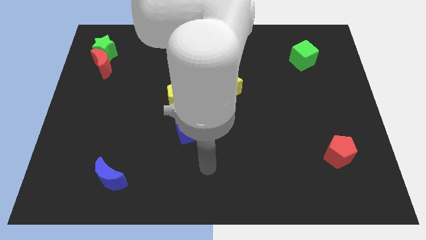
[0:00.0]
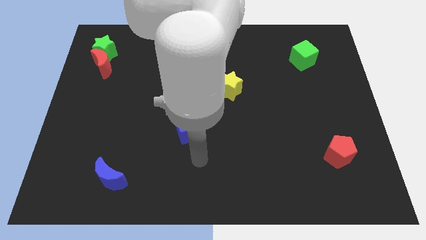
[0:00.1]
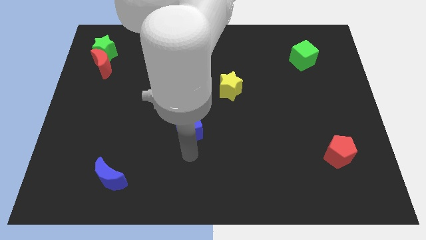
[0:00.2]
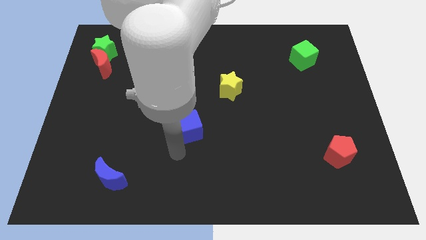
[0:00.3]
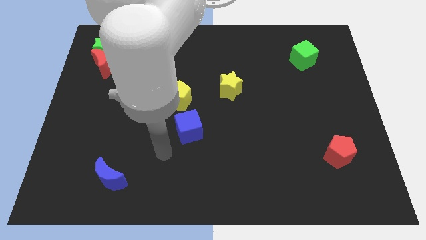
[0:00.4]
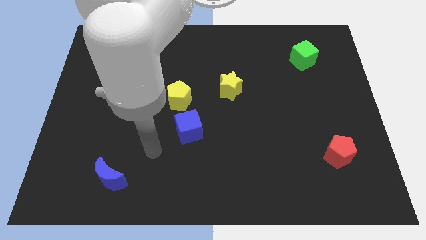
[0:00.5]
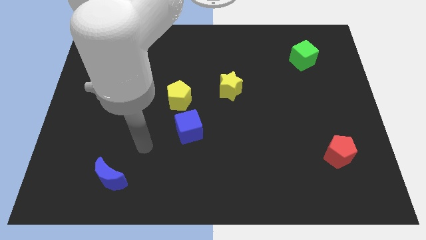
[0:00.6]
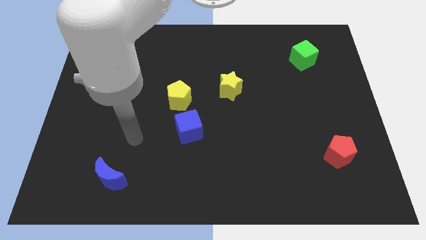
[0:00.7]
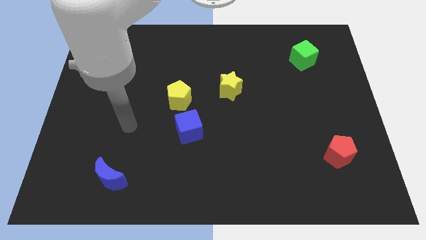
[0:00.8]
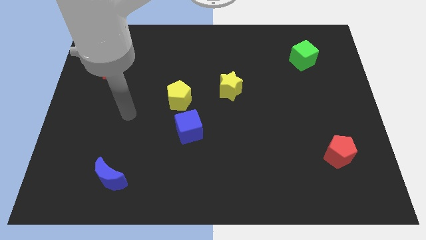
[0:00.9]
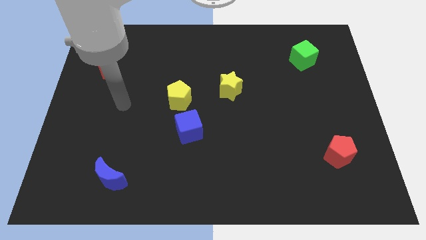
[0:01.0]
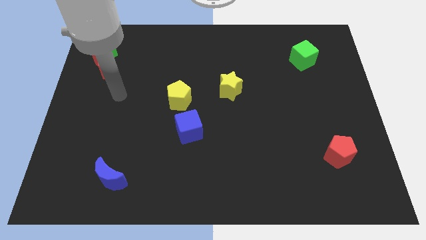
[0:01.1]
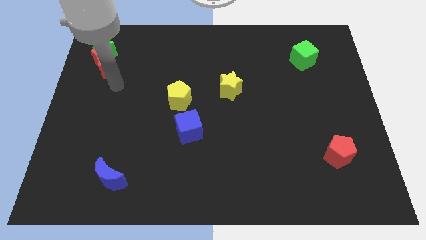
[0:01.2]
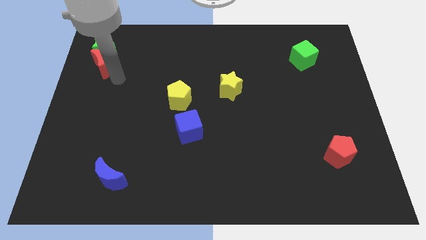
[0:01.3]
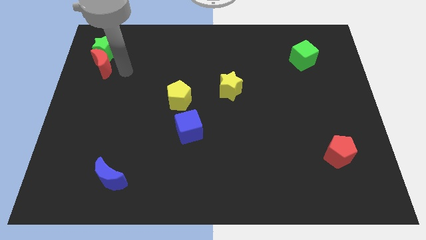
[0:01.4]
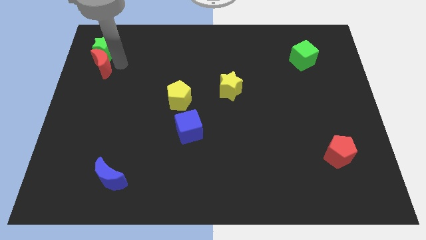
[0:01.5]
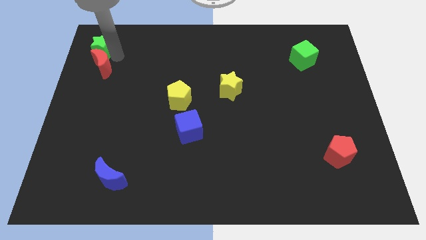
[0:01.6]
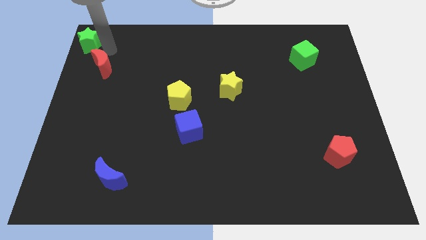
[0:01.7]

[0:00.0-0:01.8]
separate the red moon from the green star

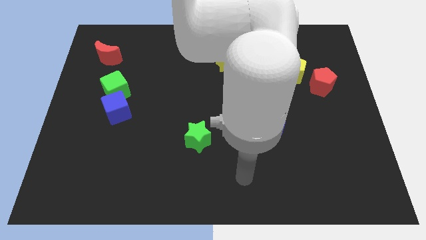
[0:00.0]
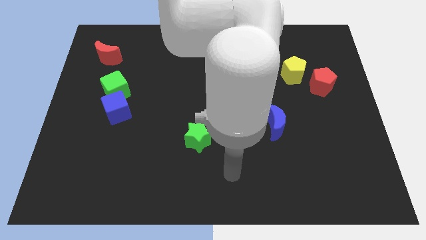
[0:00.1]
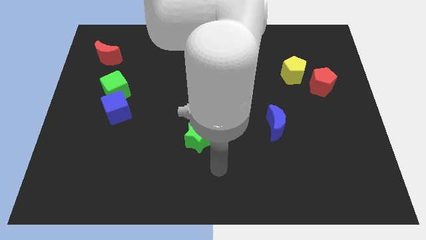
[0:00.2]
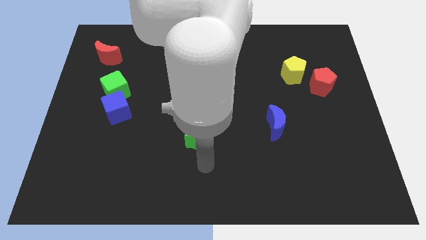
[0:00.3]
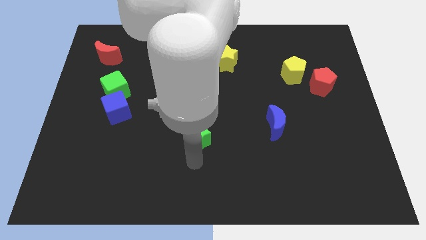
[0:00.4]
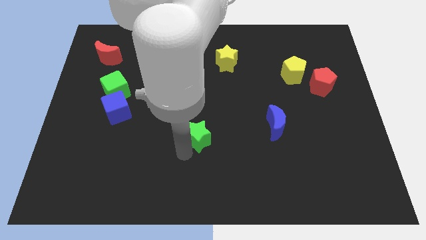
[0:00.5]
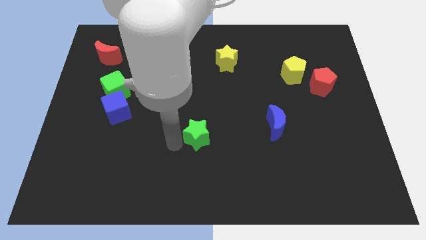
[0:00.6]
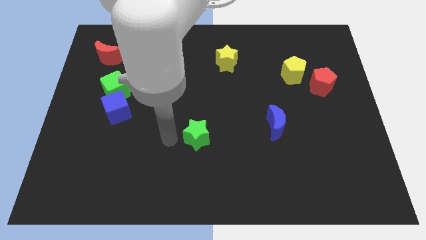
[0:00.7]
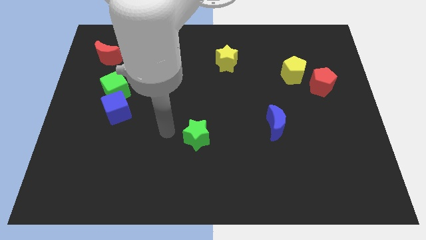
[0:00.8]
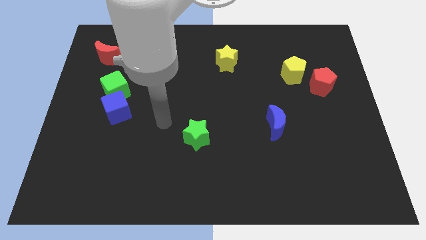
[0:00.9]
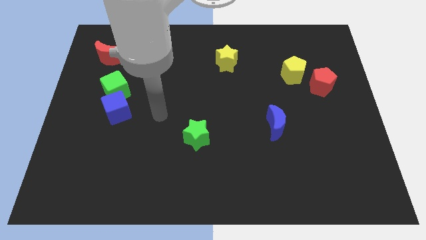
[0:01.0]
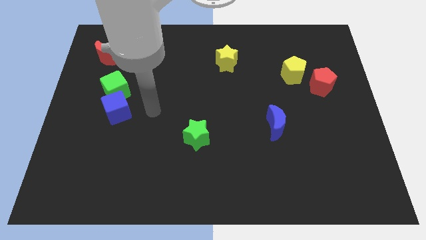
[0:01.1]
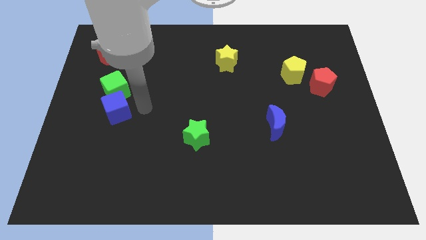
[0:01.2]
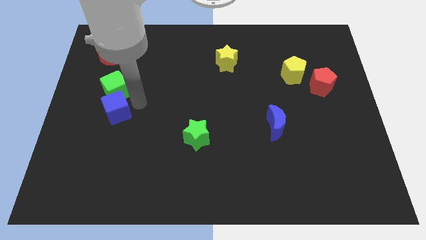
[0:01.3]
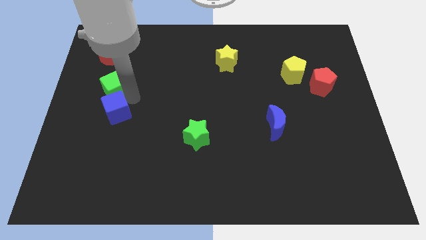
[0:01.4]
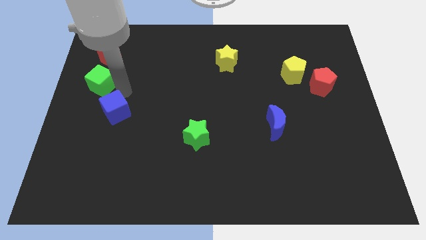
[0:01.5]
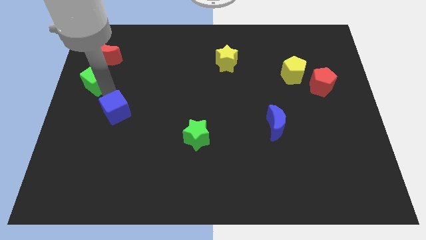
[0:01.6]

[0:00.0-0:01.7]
move the blue cube away from the green cube

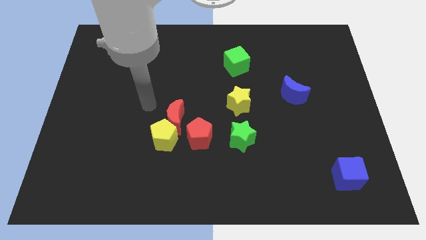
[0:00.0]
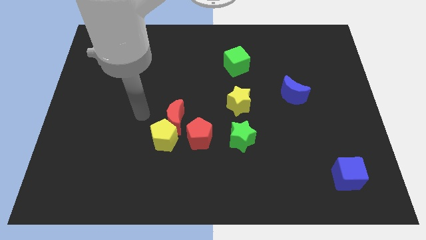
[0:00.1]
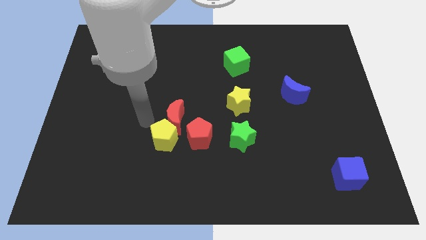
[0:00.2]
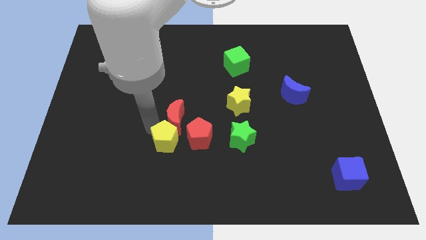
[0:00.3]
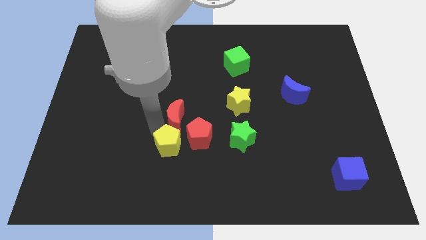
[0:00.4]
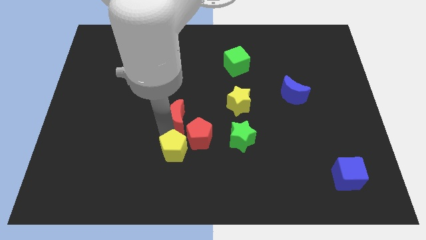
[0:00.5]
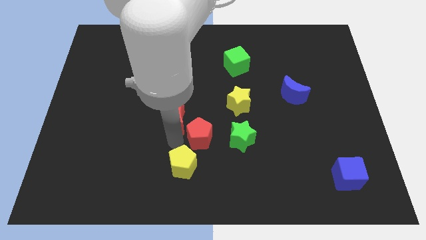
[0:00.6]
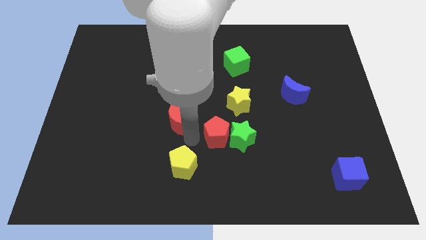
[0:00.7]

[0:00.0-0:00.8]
move the red moon away from the yellow pentagon and red pentagon

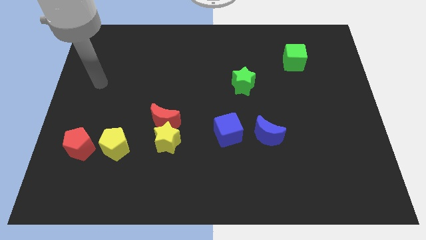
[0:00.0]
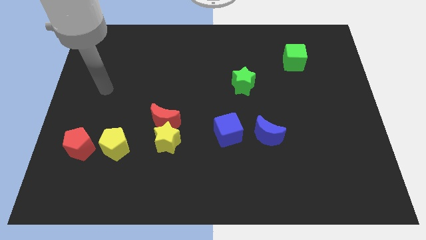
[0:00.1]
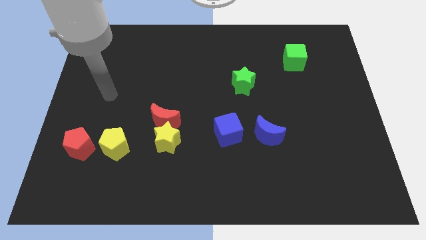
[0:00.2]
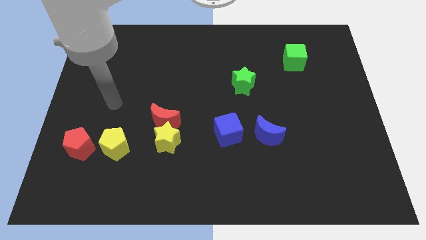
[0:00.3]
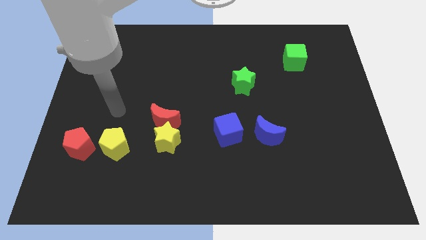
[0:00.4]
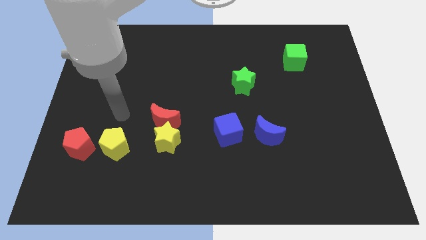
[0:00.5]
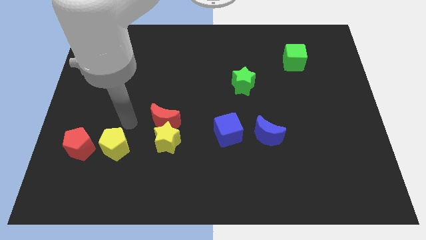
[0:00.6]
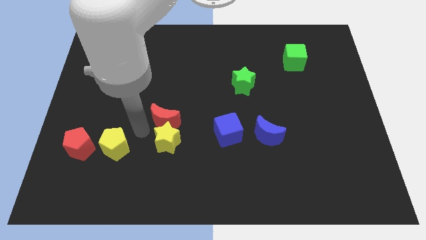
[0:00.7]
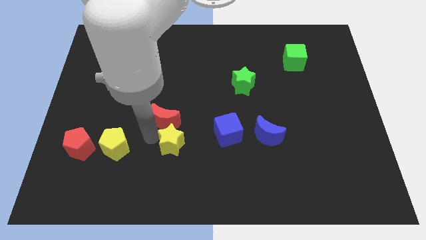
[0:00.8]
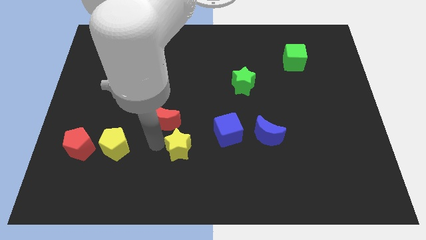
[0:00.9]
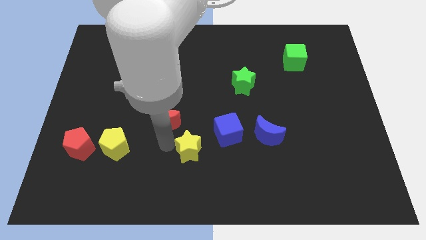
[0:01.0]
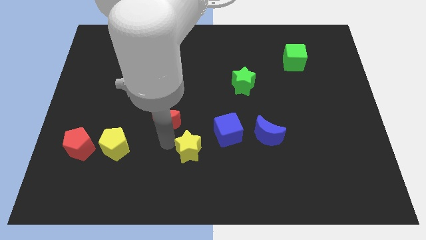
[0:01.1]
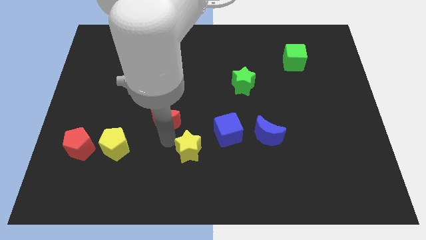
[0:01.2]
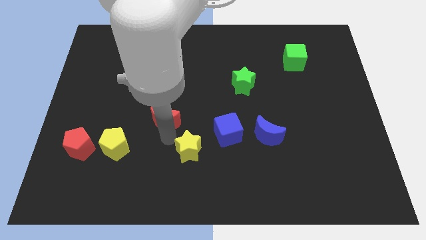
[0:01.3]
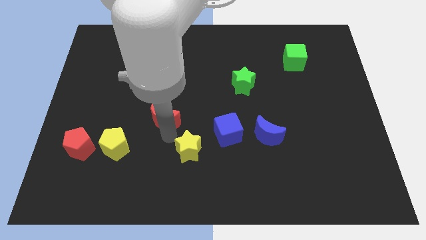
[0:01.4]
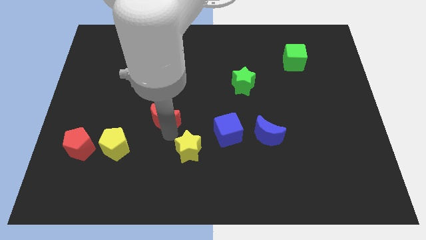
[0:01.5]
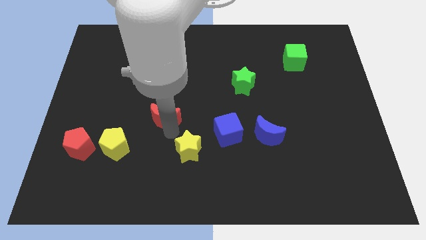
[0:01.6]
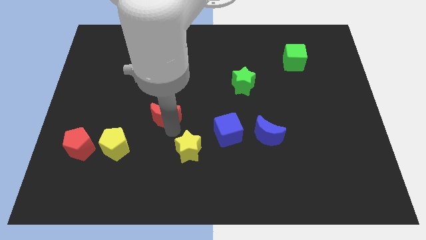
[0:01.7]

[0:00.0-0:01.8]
pull the red moon apart from the yellow star

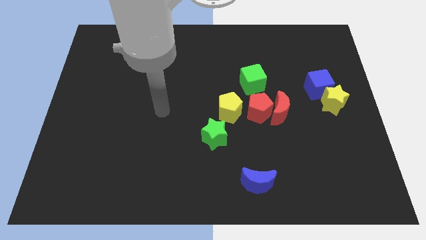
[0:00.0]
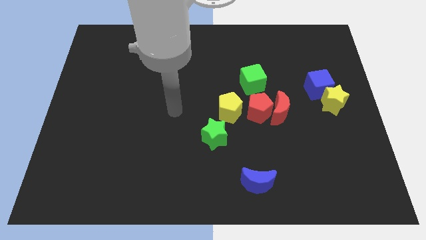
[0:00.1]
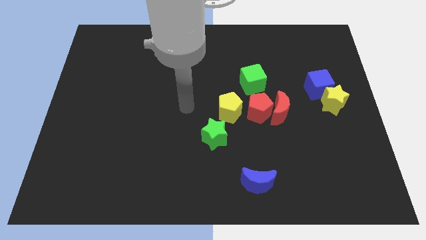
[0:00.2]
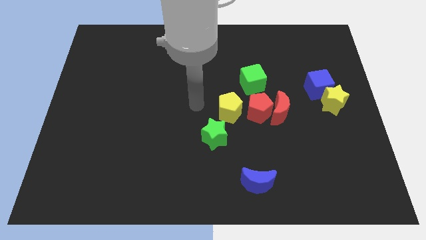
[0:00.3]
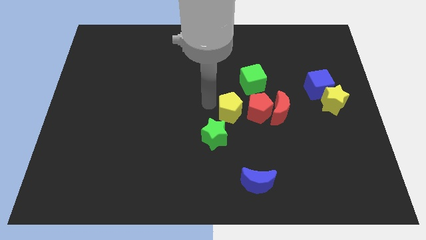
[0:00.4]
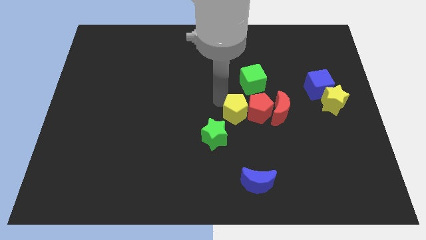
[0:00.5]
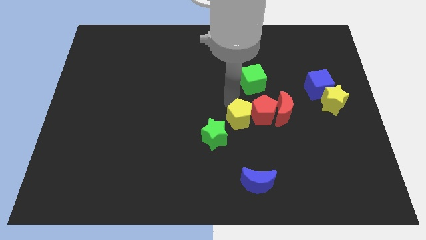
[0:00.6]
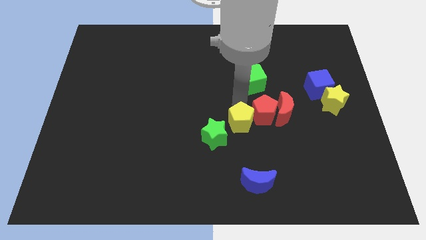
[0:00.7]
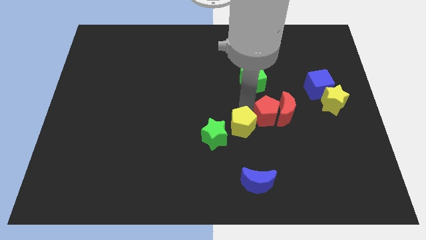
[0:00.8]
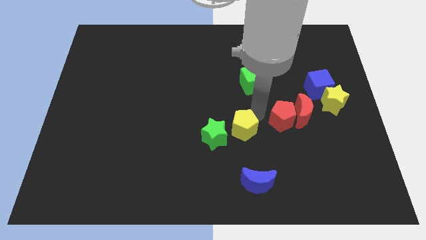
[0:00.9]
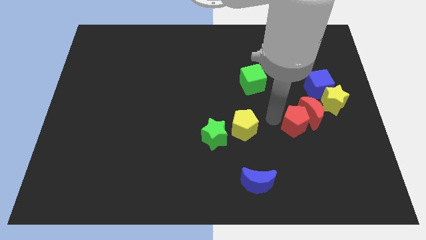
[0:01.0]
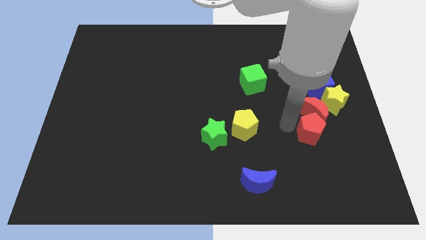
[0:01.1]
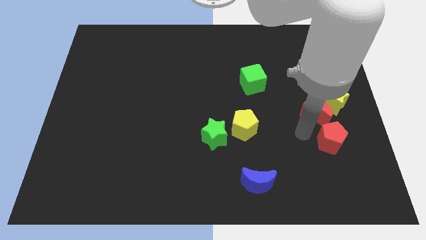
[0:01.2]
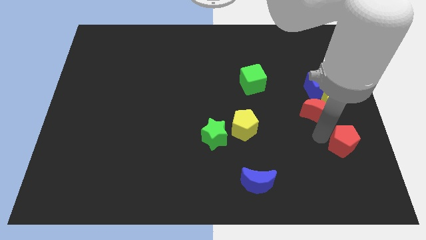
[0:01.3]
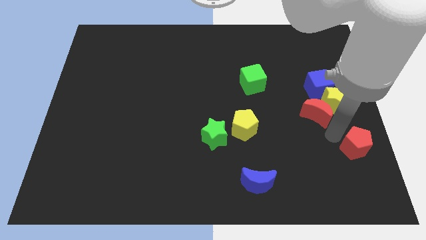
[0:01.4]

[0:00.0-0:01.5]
separate the red moon from the red pentagon

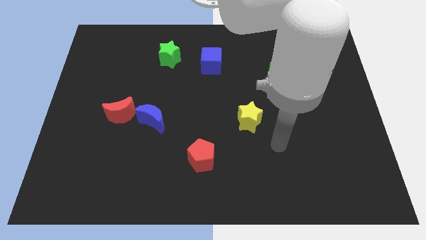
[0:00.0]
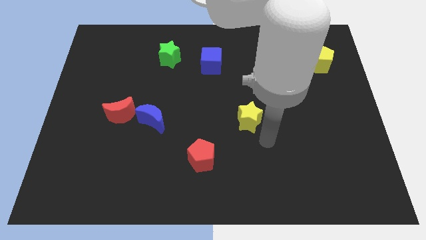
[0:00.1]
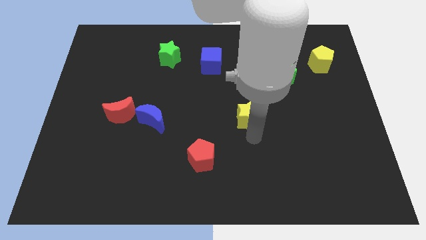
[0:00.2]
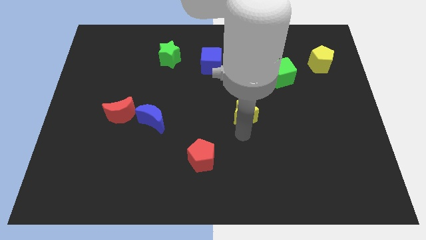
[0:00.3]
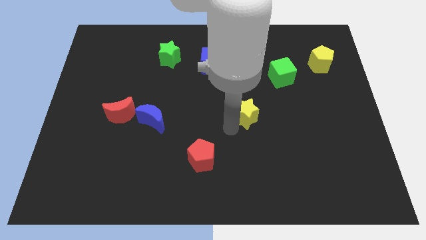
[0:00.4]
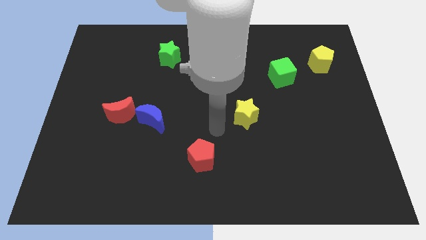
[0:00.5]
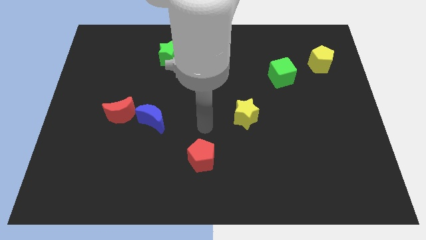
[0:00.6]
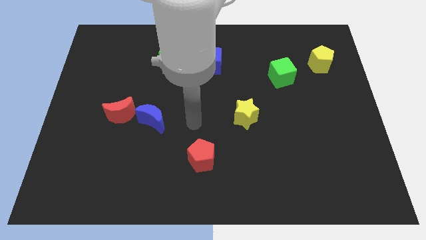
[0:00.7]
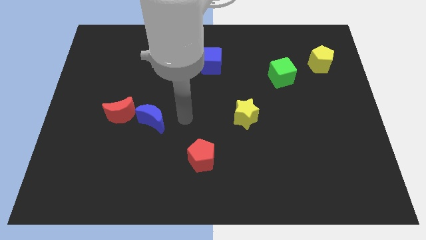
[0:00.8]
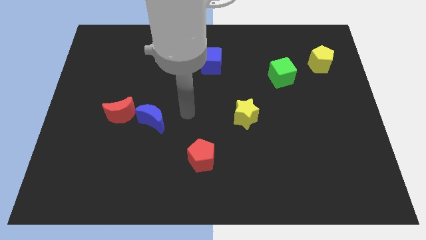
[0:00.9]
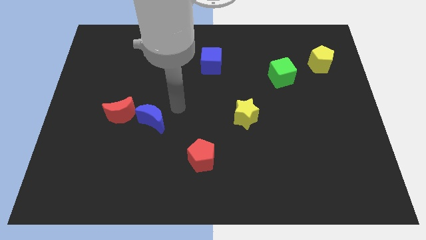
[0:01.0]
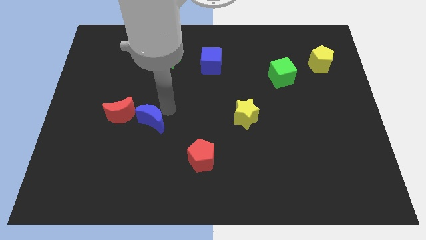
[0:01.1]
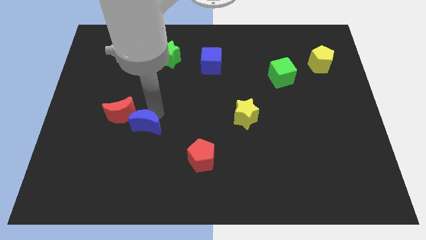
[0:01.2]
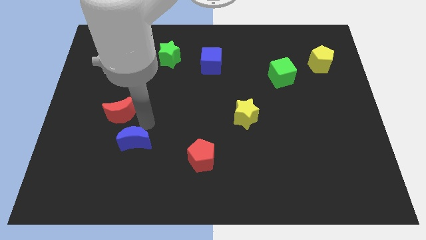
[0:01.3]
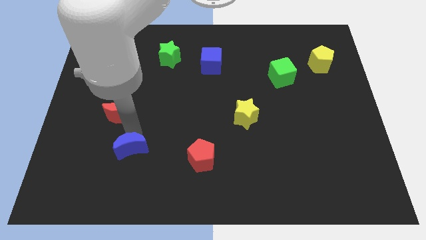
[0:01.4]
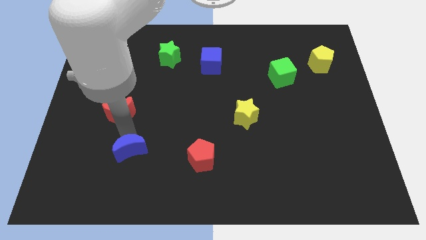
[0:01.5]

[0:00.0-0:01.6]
pull the red moon apart from the blue moon
